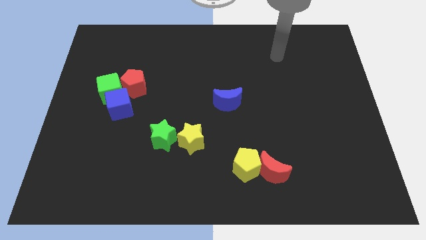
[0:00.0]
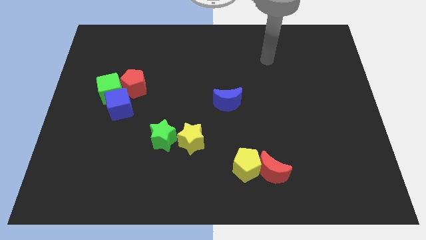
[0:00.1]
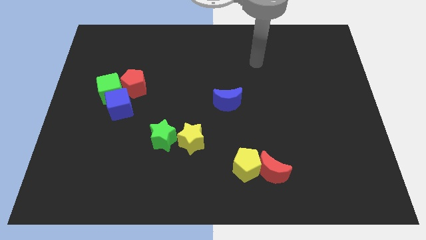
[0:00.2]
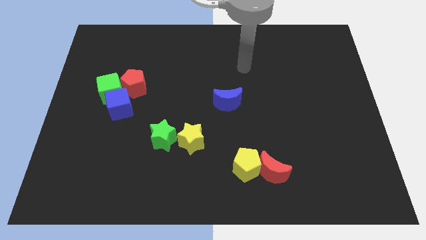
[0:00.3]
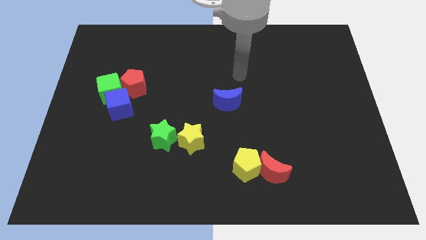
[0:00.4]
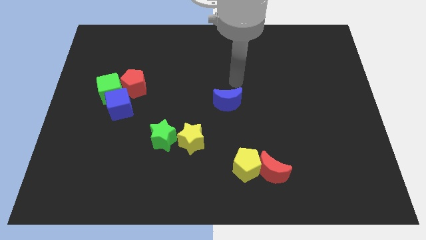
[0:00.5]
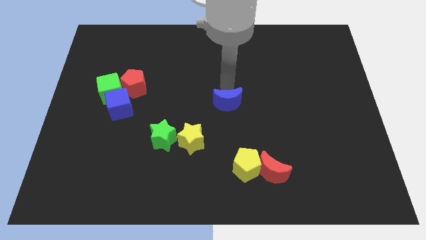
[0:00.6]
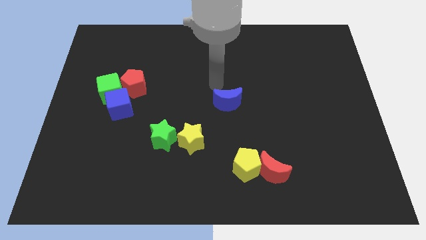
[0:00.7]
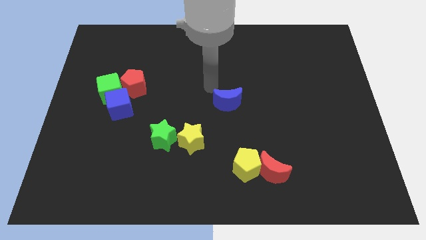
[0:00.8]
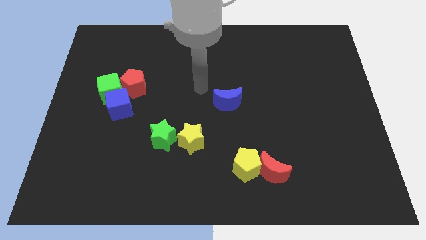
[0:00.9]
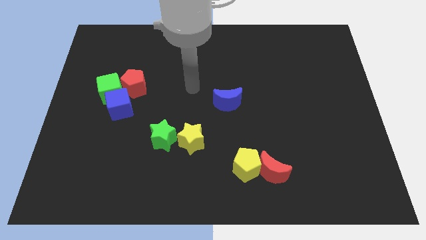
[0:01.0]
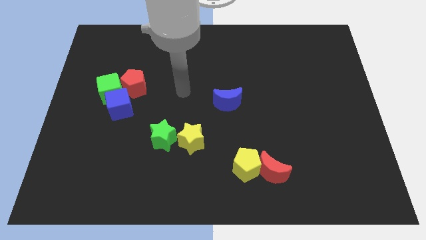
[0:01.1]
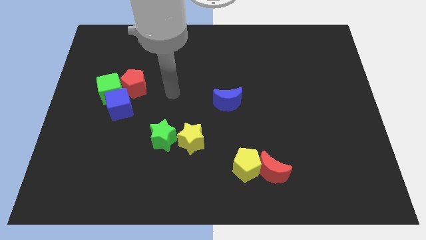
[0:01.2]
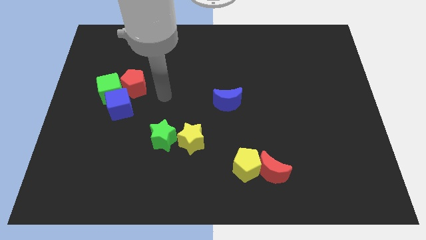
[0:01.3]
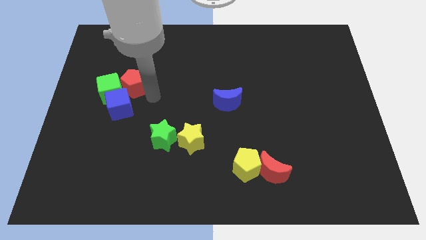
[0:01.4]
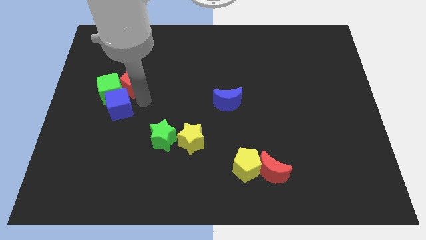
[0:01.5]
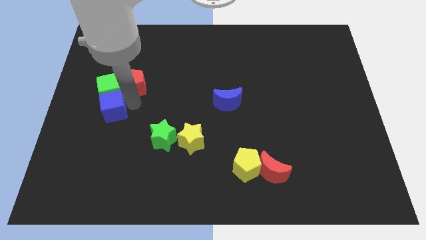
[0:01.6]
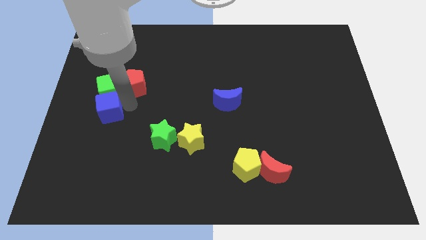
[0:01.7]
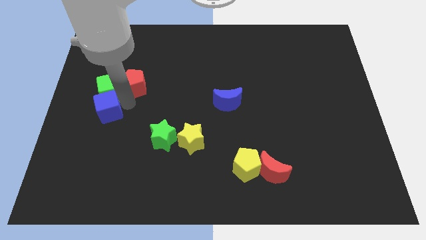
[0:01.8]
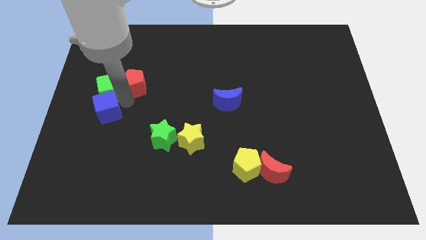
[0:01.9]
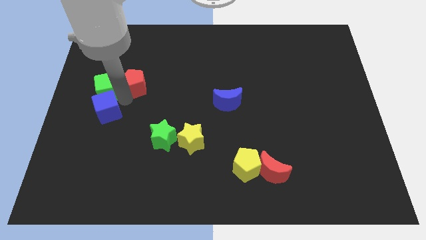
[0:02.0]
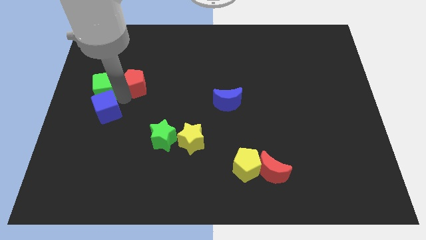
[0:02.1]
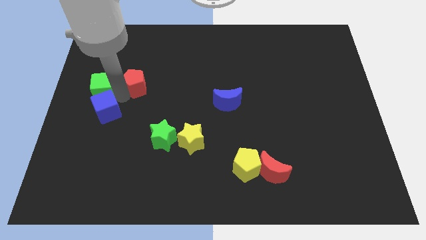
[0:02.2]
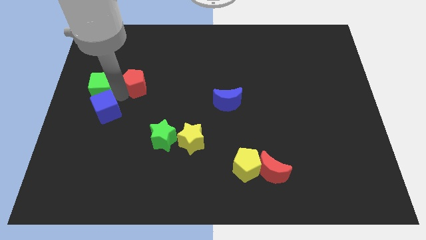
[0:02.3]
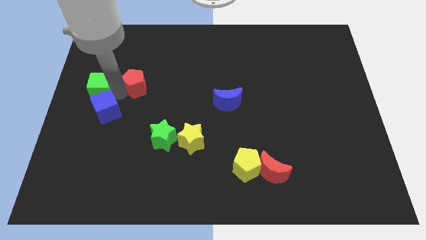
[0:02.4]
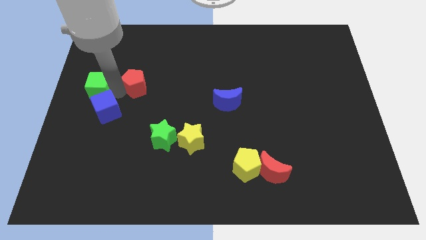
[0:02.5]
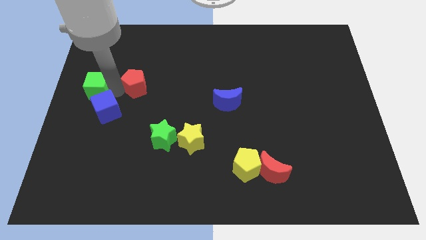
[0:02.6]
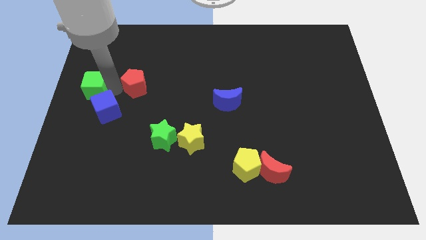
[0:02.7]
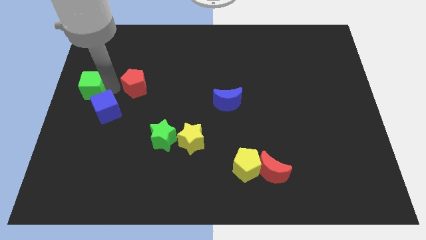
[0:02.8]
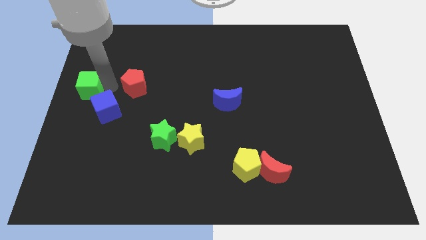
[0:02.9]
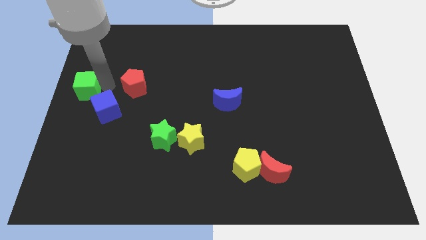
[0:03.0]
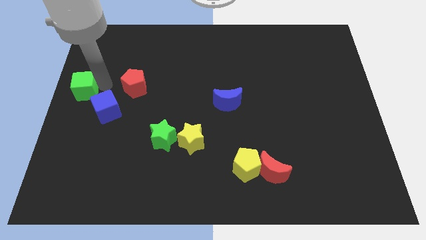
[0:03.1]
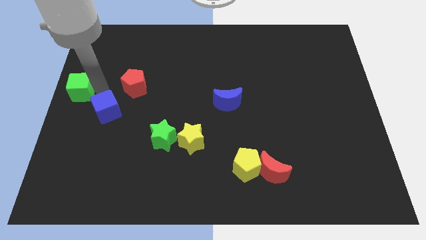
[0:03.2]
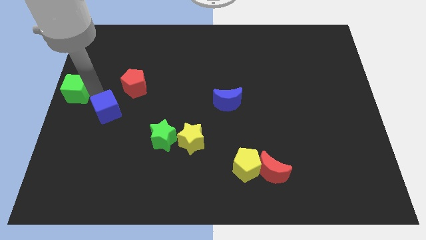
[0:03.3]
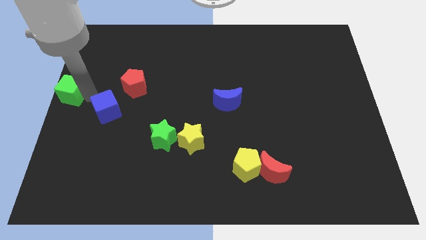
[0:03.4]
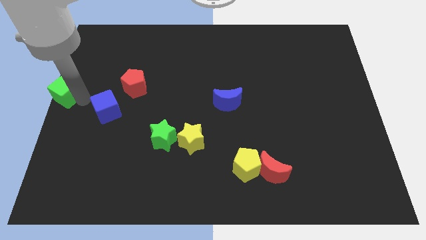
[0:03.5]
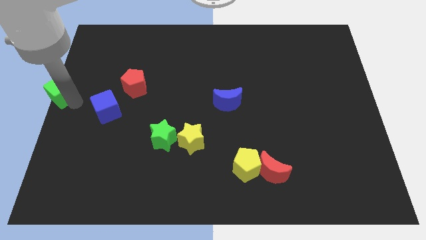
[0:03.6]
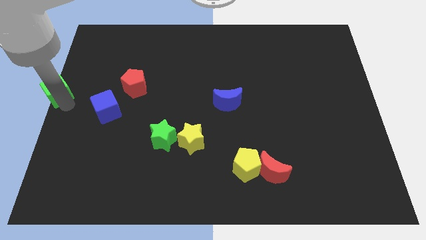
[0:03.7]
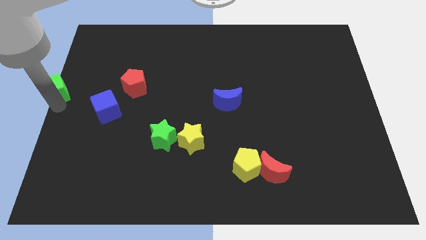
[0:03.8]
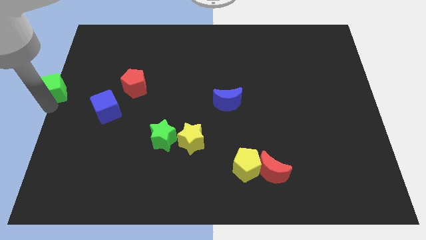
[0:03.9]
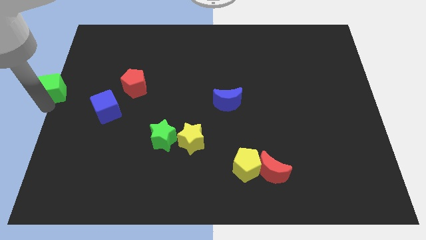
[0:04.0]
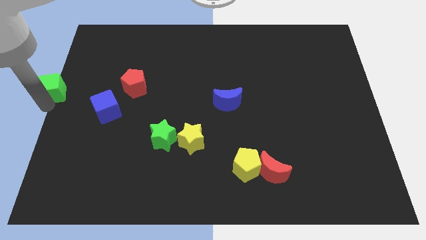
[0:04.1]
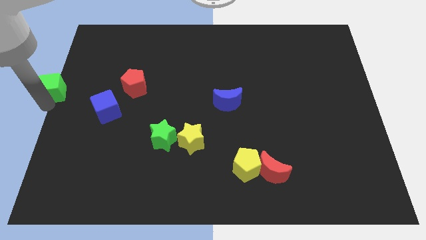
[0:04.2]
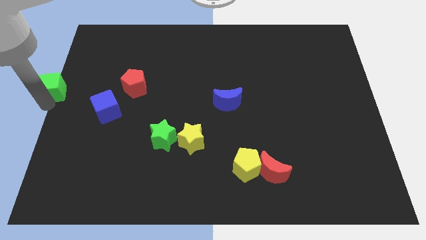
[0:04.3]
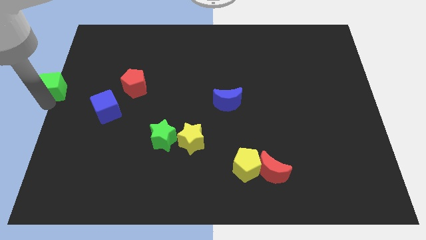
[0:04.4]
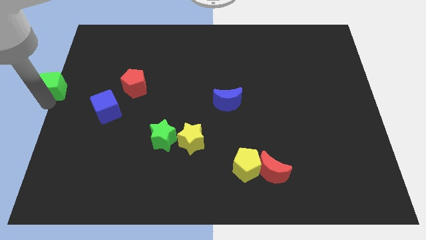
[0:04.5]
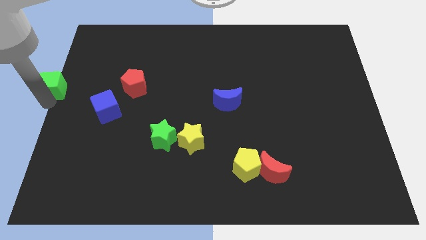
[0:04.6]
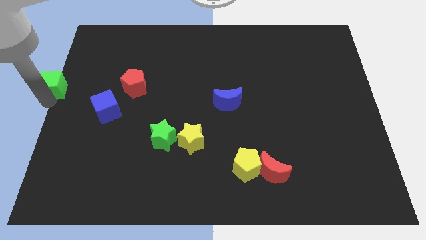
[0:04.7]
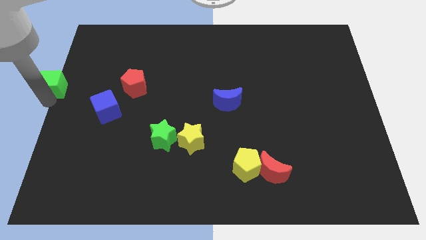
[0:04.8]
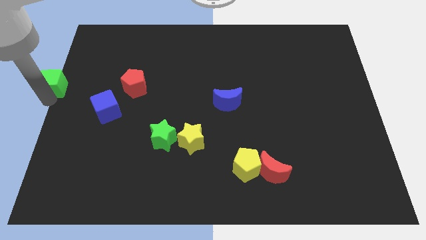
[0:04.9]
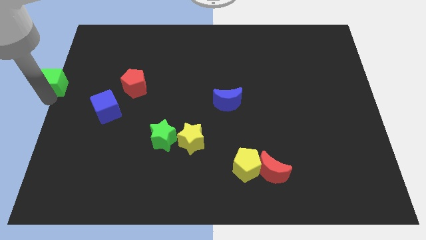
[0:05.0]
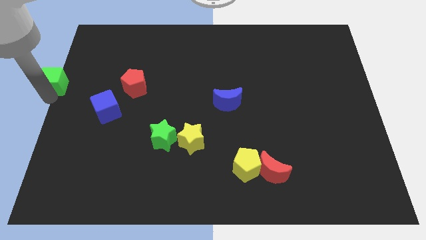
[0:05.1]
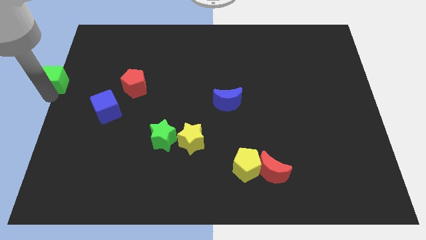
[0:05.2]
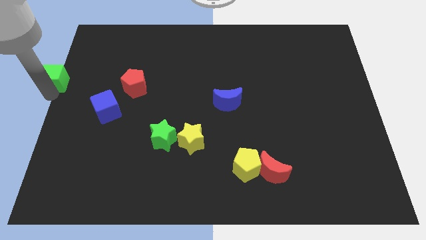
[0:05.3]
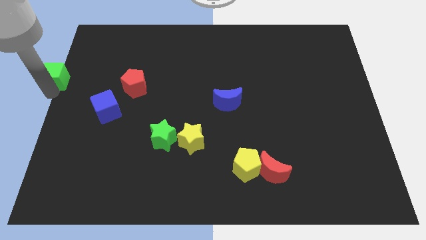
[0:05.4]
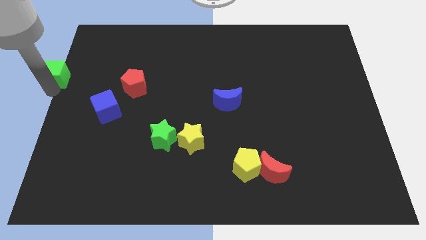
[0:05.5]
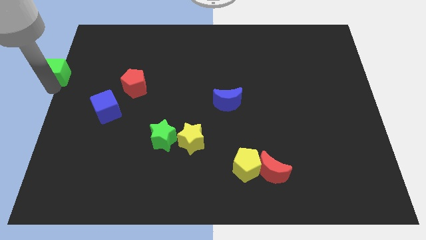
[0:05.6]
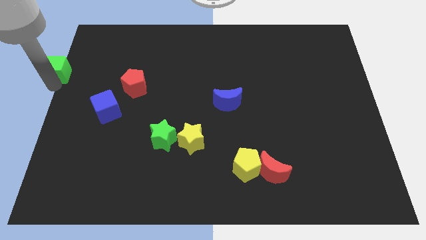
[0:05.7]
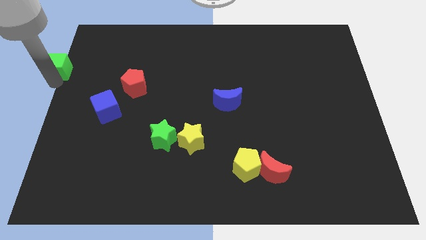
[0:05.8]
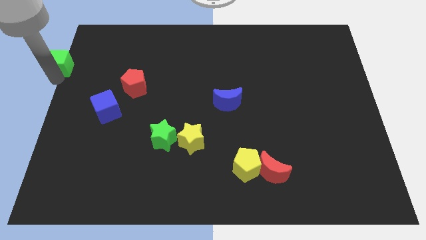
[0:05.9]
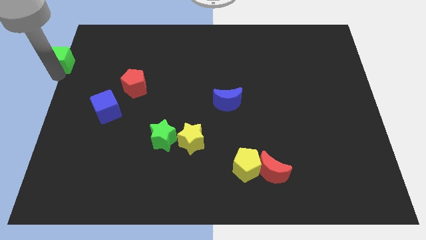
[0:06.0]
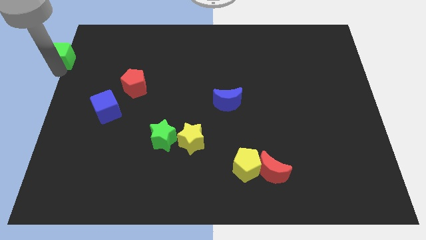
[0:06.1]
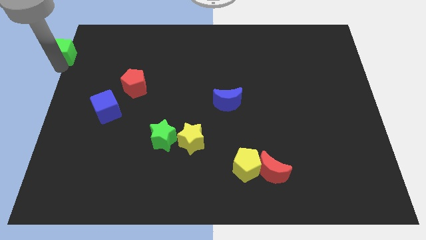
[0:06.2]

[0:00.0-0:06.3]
slide the green cube to the top left of the board
